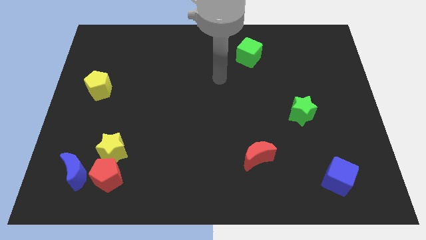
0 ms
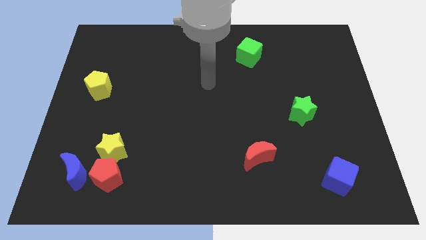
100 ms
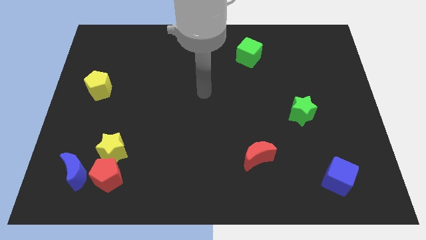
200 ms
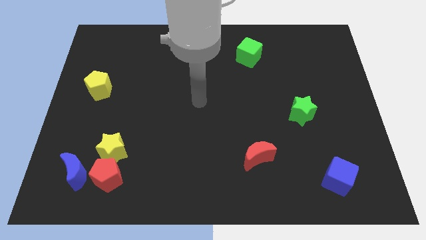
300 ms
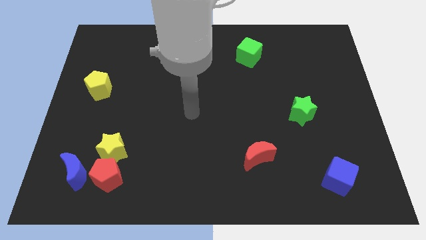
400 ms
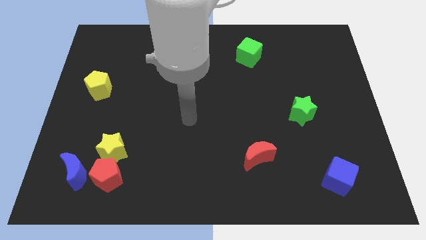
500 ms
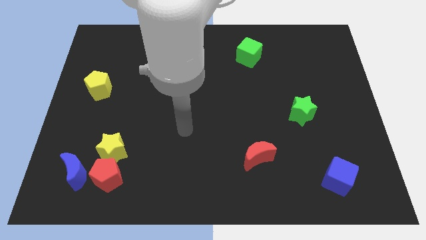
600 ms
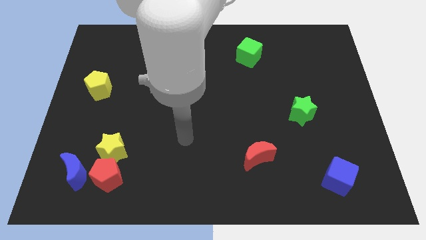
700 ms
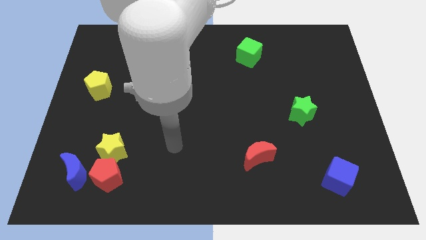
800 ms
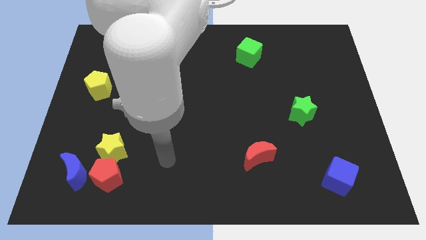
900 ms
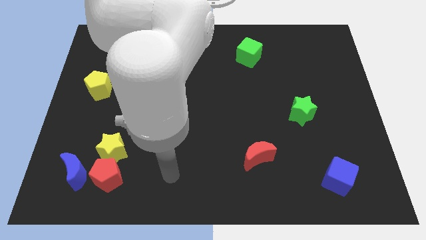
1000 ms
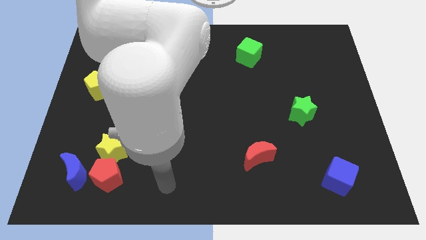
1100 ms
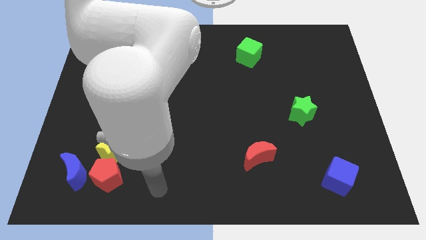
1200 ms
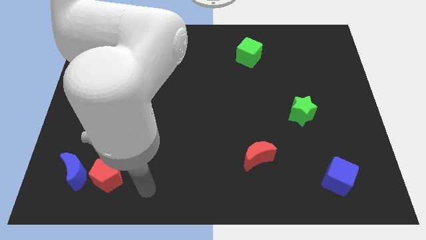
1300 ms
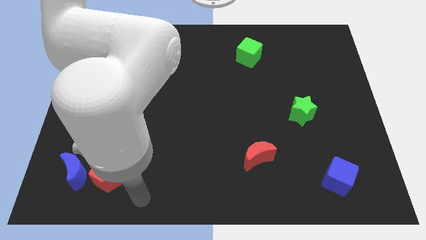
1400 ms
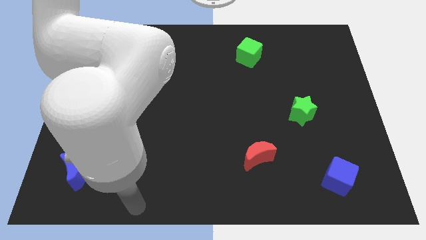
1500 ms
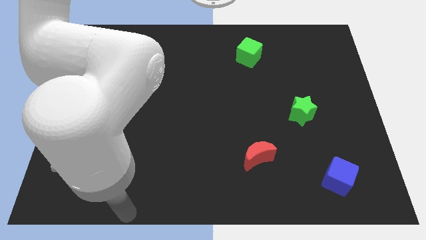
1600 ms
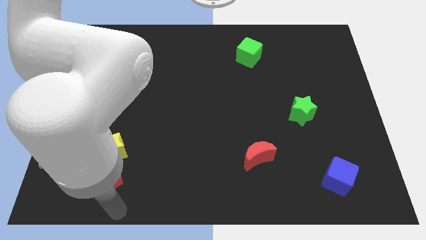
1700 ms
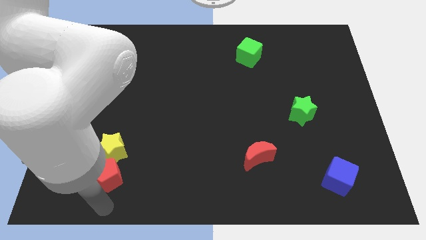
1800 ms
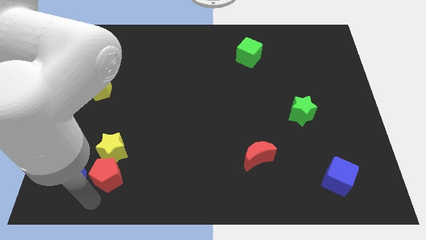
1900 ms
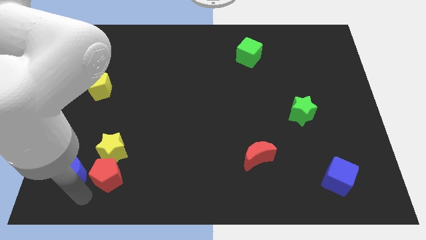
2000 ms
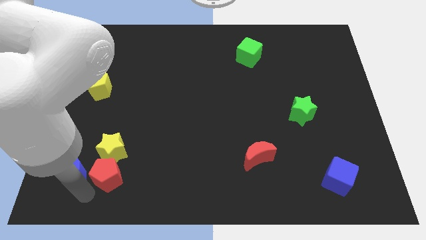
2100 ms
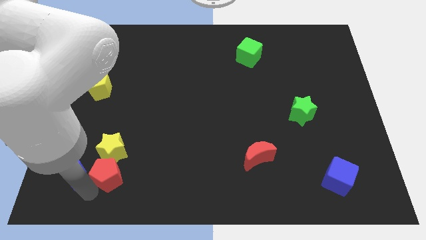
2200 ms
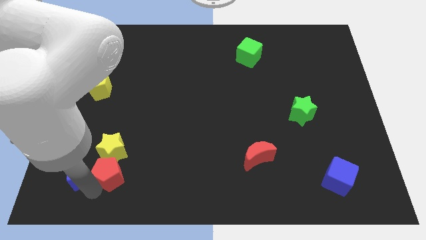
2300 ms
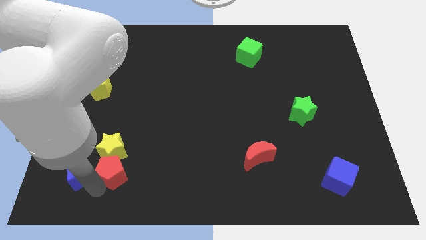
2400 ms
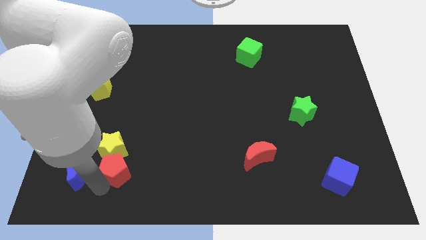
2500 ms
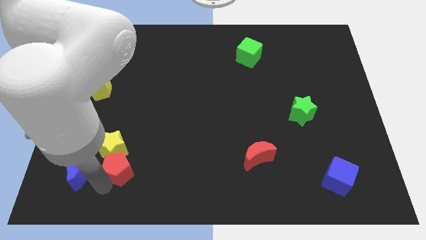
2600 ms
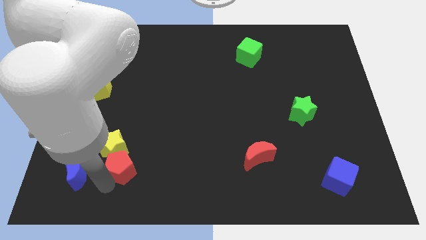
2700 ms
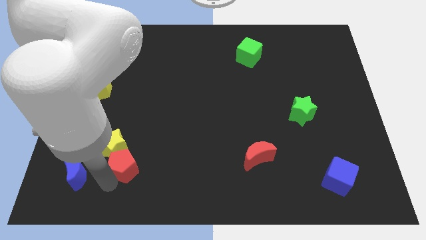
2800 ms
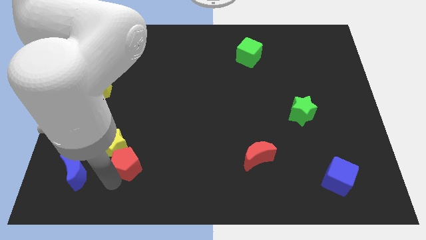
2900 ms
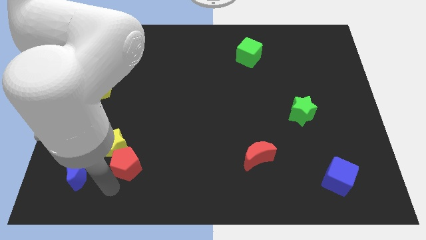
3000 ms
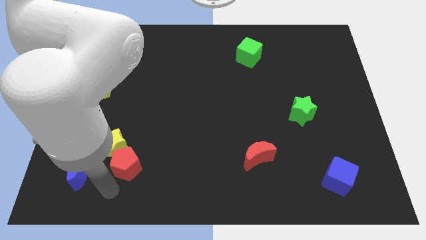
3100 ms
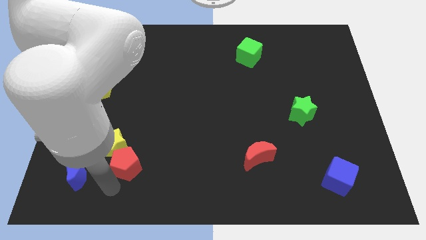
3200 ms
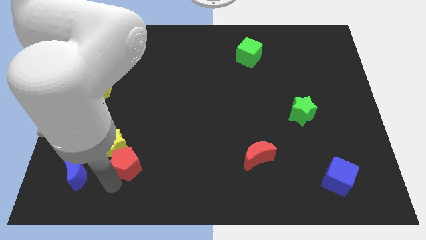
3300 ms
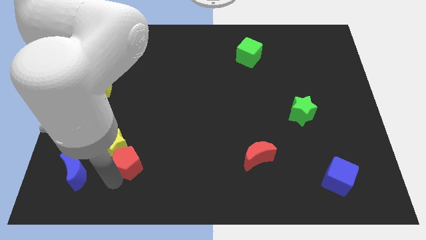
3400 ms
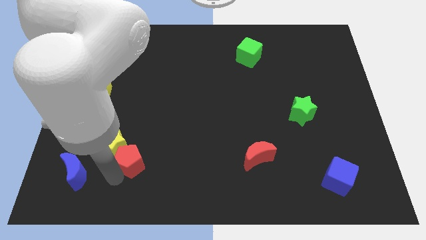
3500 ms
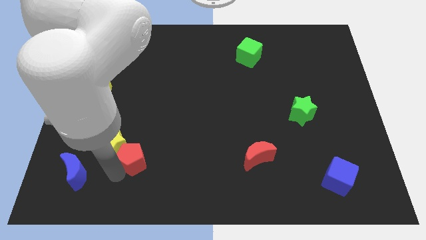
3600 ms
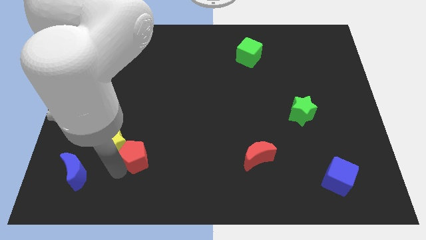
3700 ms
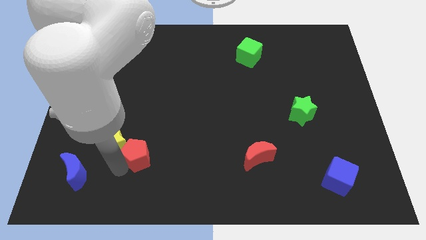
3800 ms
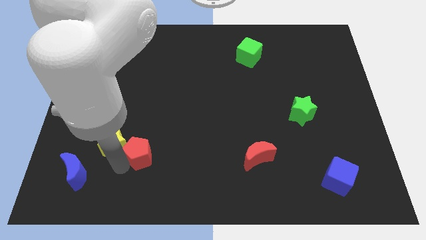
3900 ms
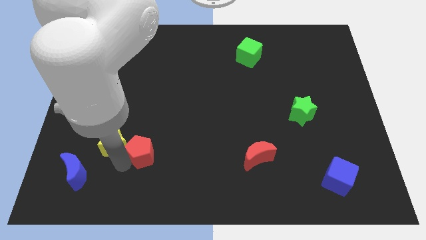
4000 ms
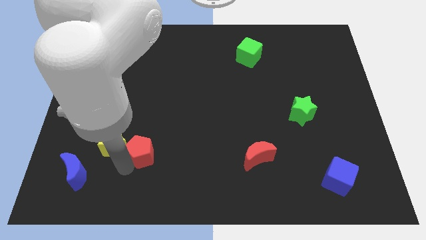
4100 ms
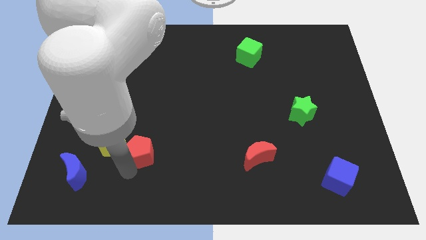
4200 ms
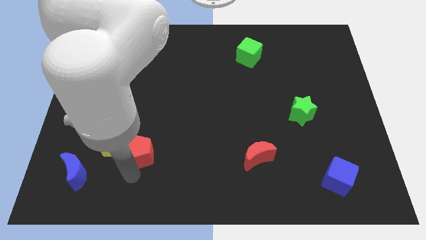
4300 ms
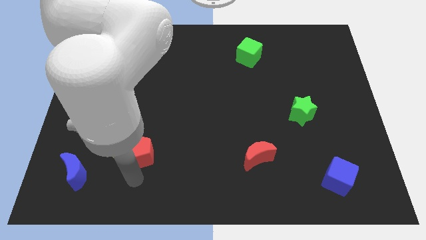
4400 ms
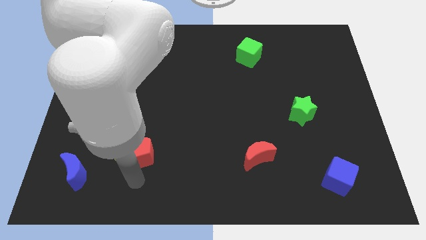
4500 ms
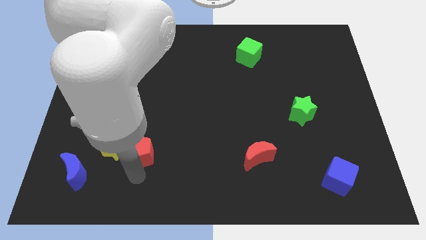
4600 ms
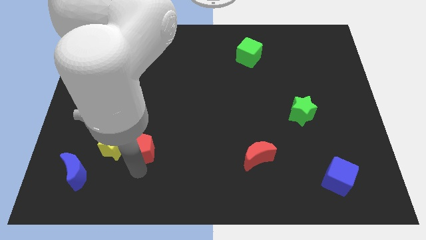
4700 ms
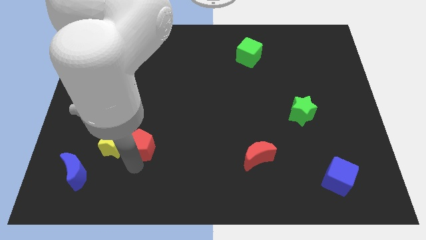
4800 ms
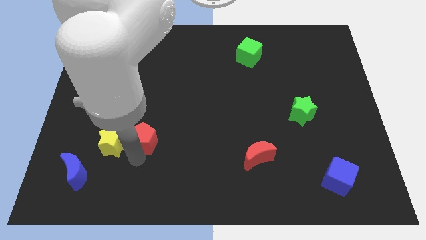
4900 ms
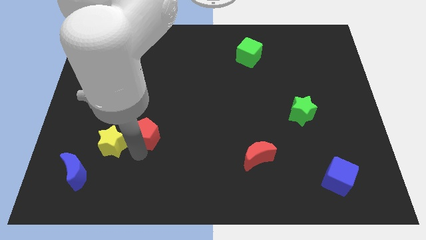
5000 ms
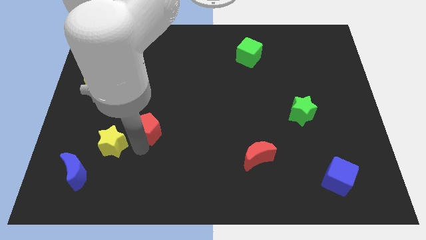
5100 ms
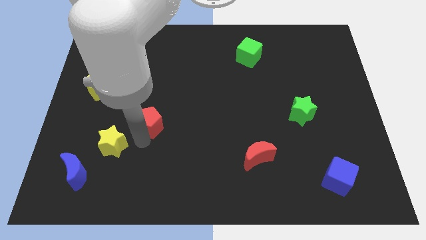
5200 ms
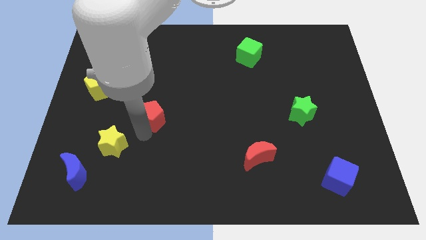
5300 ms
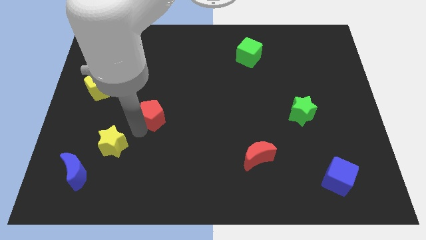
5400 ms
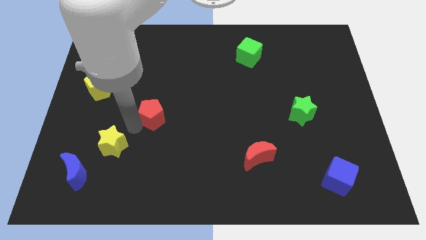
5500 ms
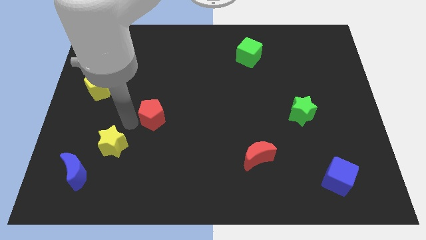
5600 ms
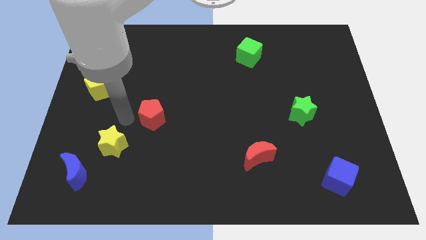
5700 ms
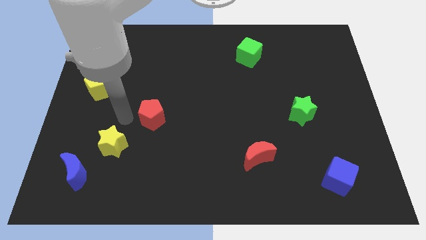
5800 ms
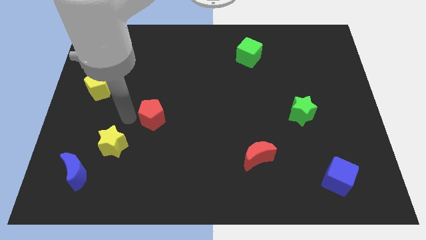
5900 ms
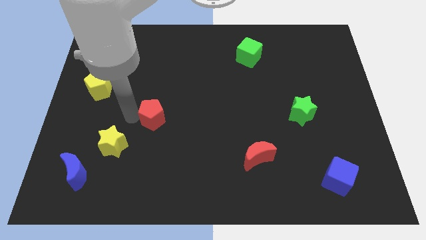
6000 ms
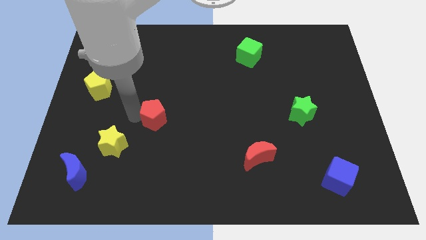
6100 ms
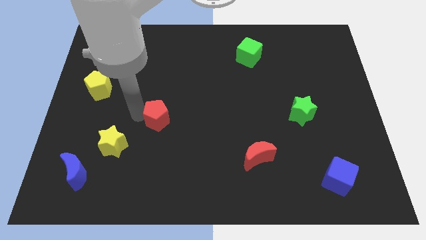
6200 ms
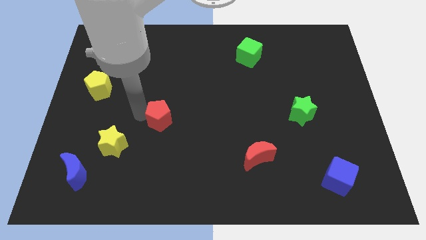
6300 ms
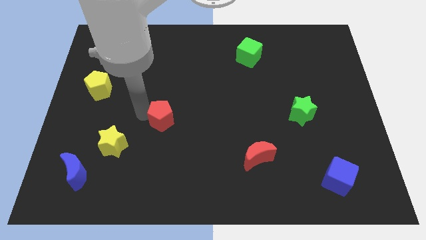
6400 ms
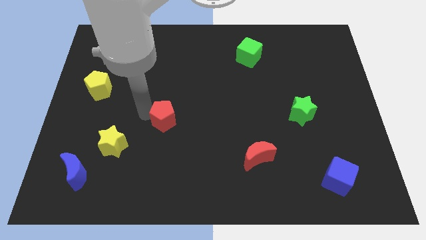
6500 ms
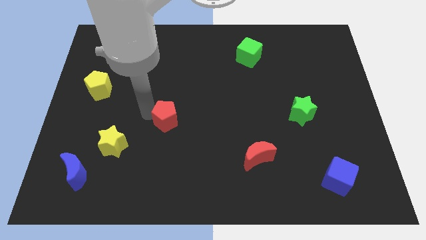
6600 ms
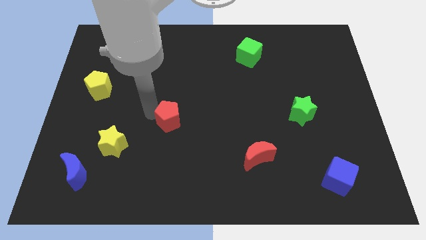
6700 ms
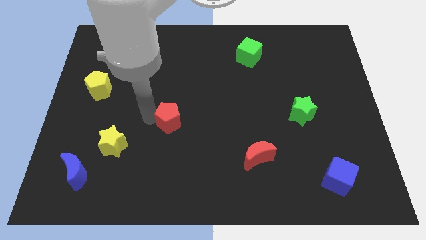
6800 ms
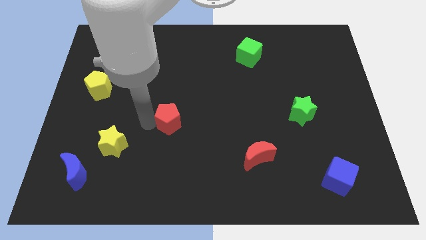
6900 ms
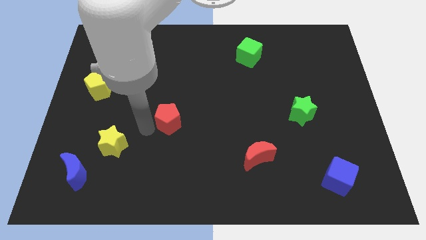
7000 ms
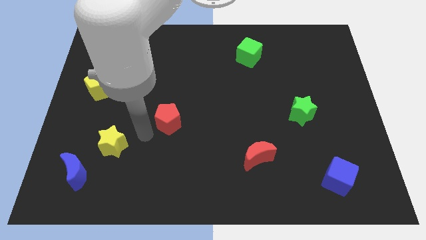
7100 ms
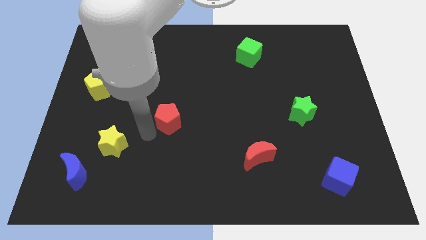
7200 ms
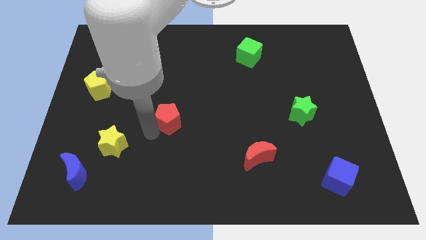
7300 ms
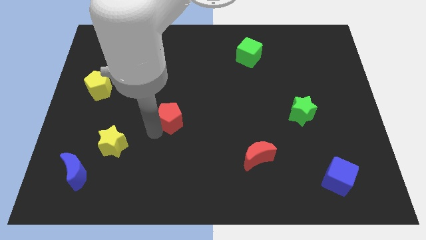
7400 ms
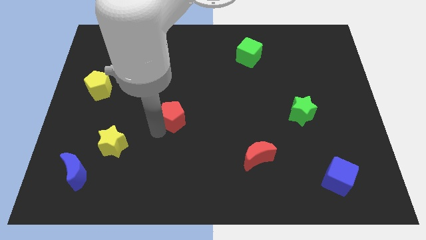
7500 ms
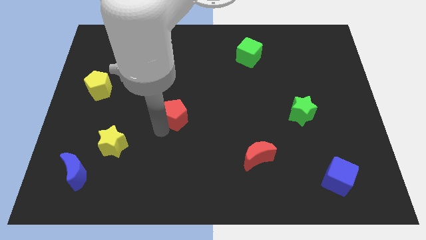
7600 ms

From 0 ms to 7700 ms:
slide the red pentagon up and then right

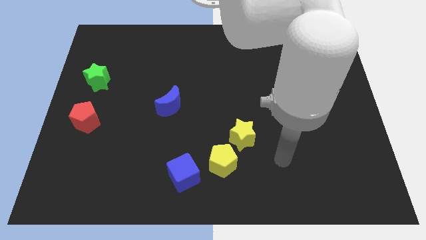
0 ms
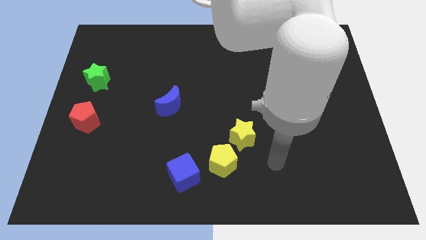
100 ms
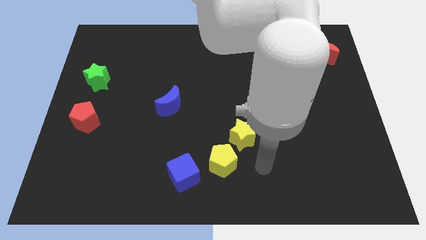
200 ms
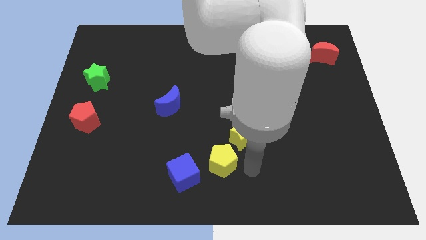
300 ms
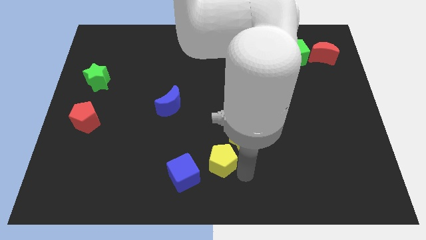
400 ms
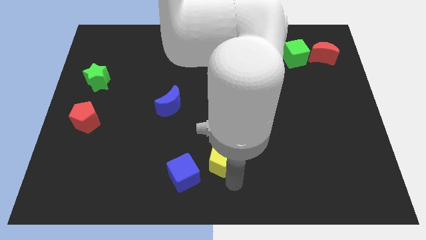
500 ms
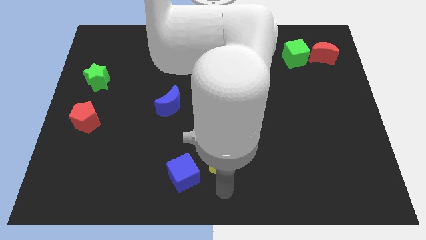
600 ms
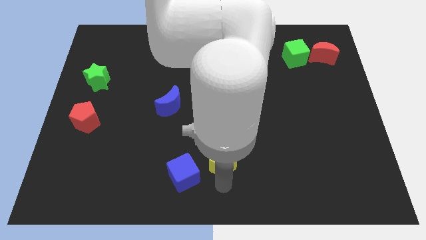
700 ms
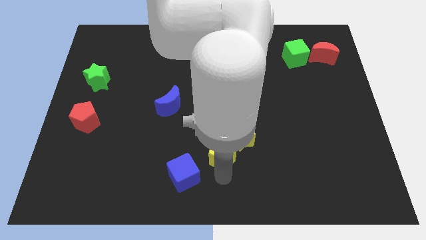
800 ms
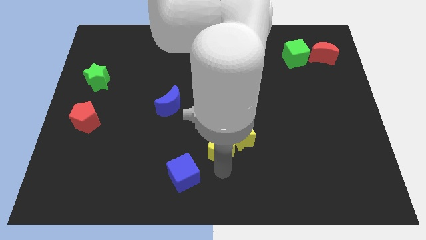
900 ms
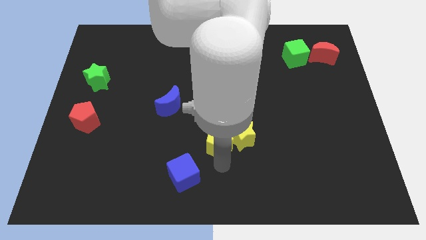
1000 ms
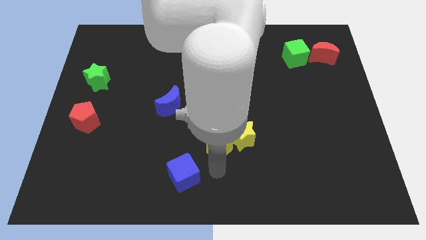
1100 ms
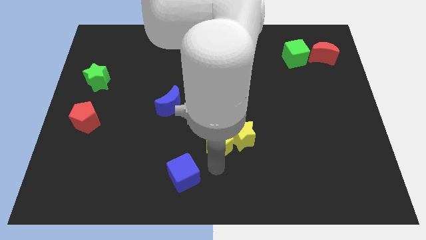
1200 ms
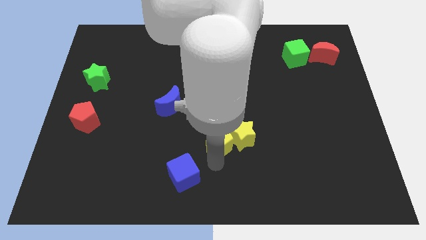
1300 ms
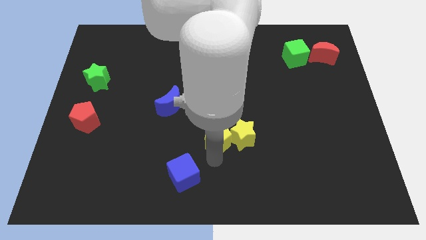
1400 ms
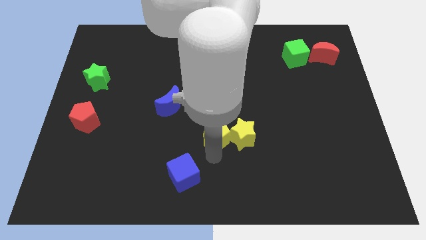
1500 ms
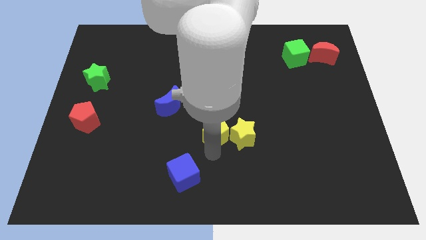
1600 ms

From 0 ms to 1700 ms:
move the yellow pentagon somewhat up
